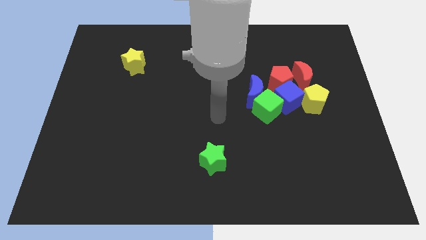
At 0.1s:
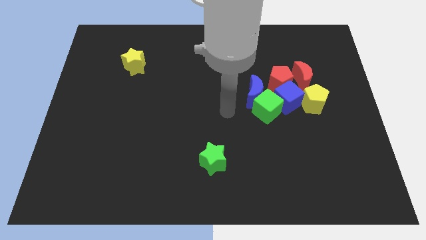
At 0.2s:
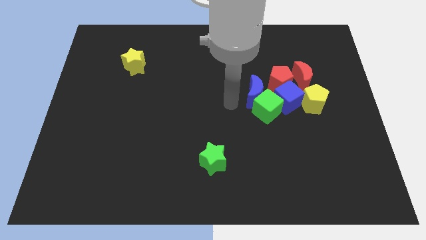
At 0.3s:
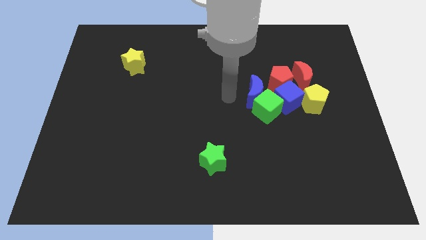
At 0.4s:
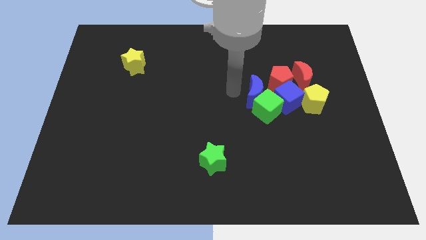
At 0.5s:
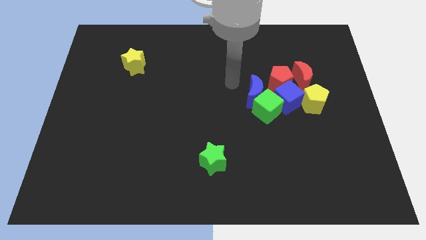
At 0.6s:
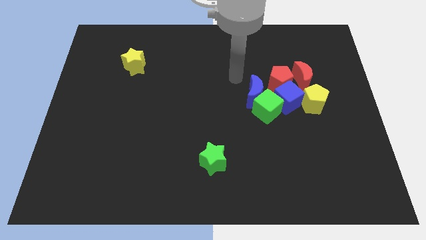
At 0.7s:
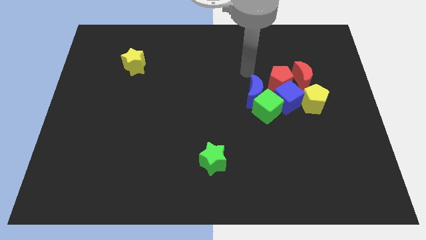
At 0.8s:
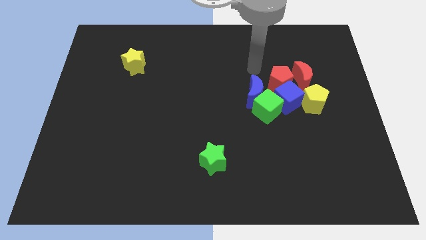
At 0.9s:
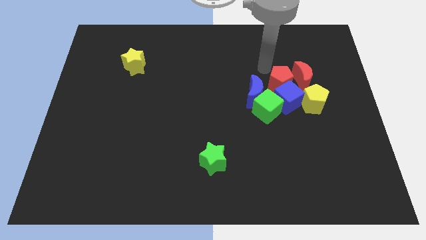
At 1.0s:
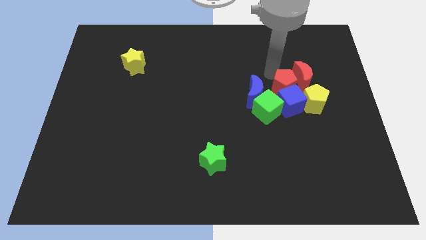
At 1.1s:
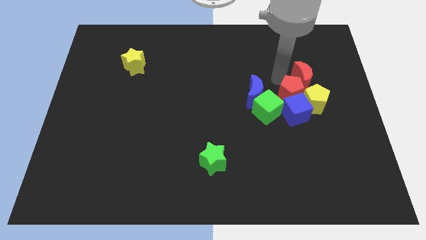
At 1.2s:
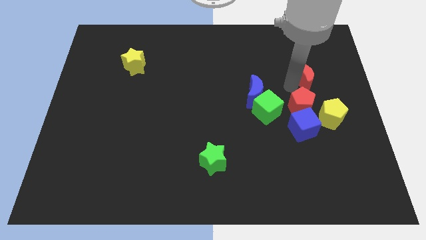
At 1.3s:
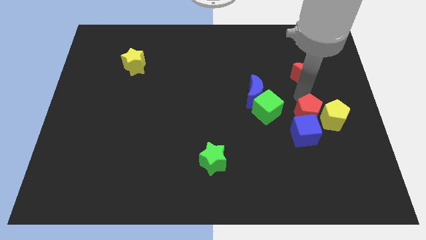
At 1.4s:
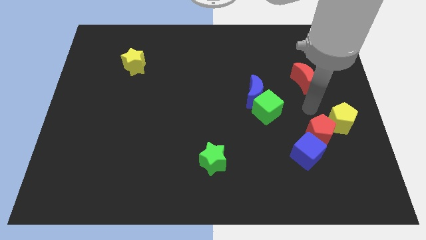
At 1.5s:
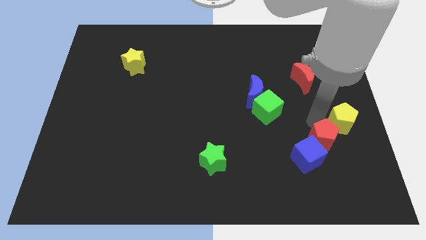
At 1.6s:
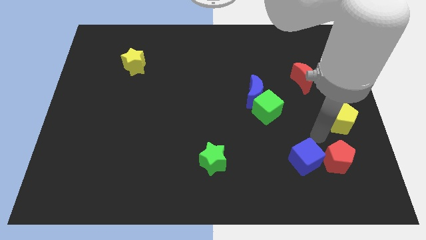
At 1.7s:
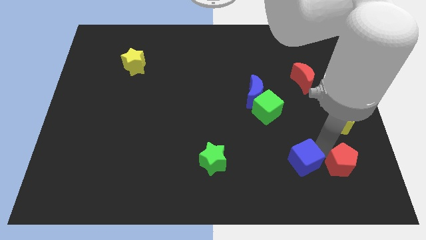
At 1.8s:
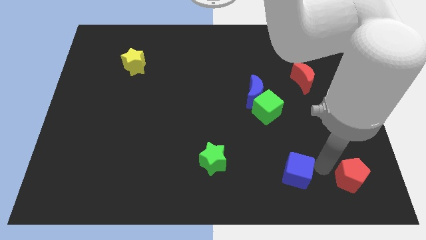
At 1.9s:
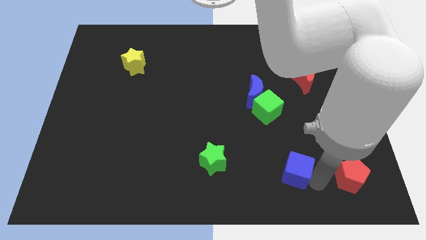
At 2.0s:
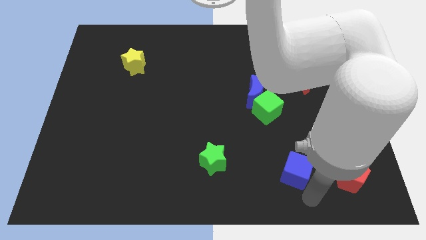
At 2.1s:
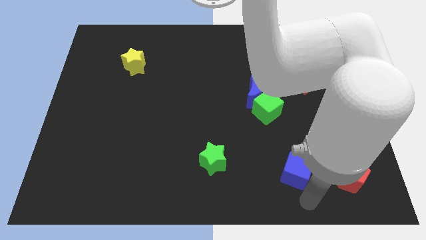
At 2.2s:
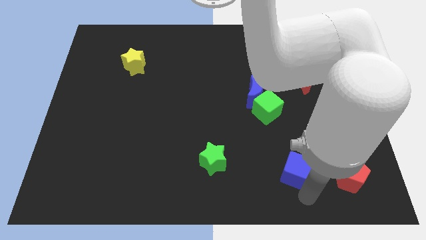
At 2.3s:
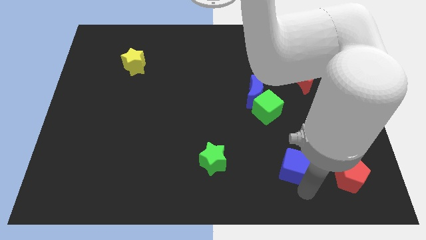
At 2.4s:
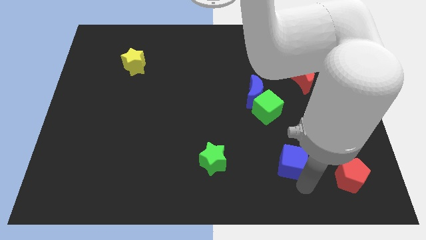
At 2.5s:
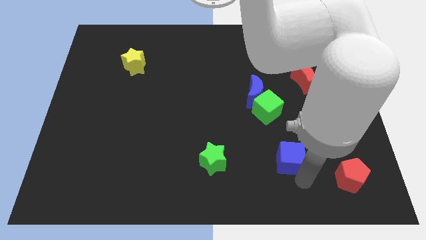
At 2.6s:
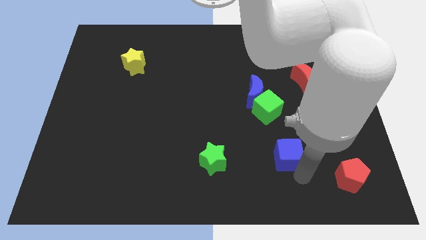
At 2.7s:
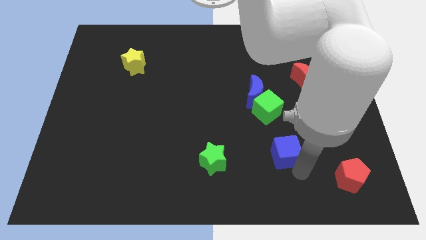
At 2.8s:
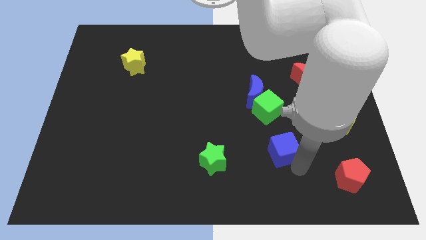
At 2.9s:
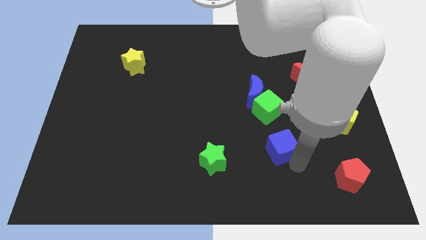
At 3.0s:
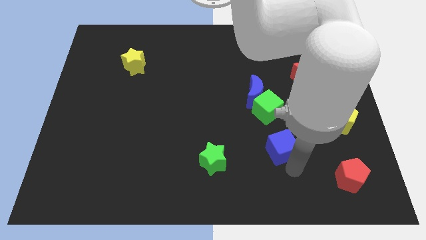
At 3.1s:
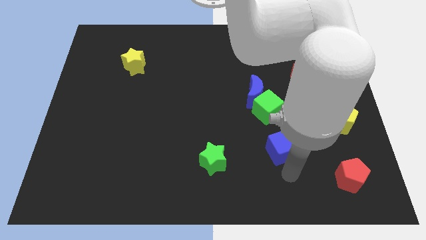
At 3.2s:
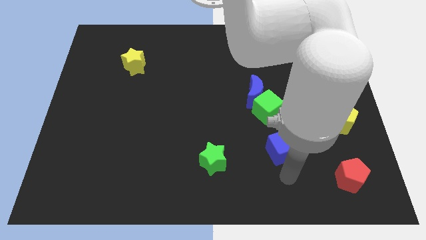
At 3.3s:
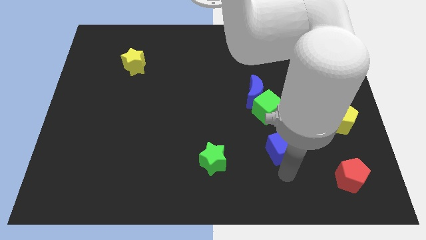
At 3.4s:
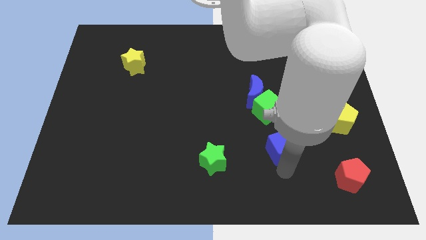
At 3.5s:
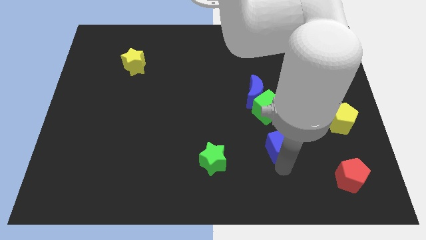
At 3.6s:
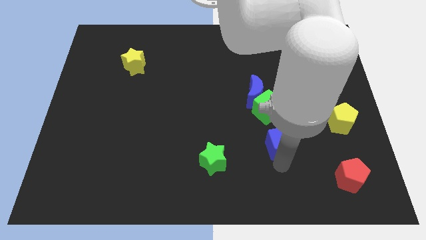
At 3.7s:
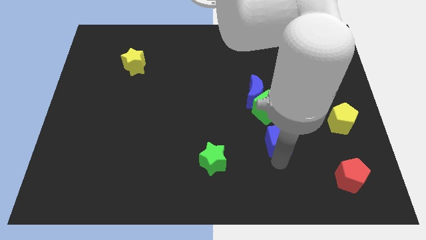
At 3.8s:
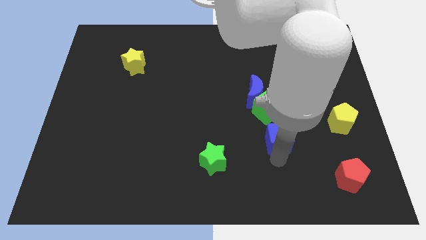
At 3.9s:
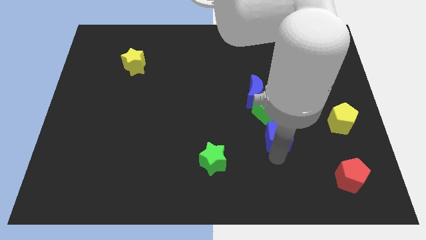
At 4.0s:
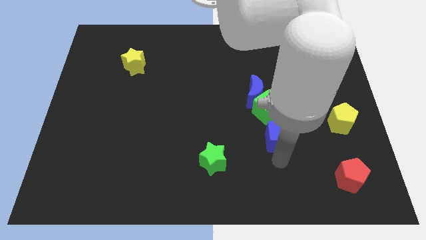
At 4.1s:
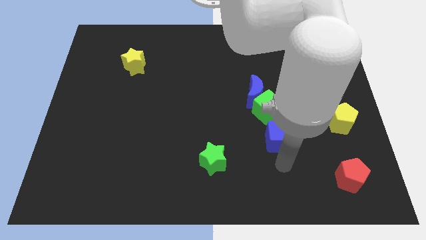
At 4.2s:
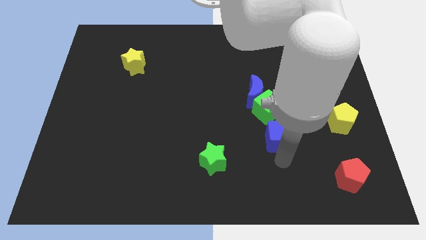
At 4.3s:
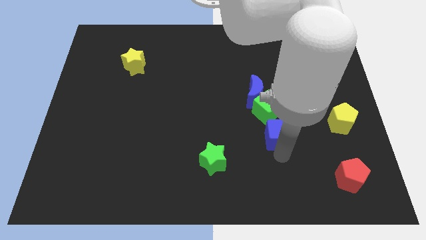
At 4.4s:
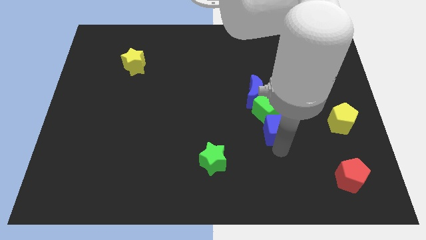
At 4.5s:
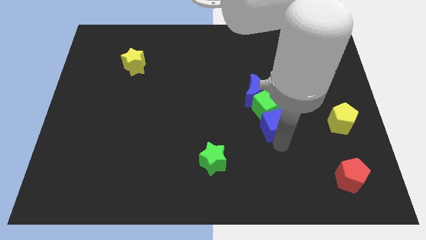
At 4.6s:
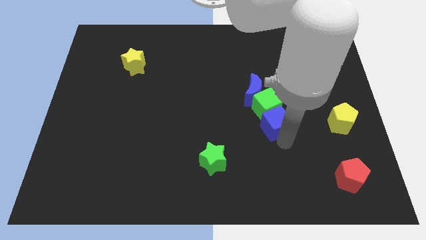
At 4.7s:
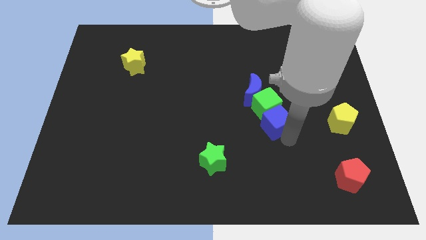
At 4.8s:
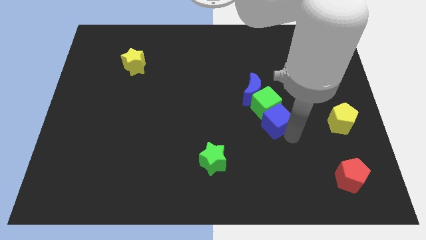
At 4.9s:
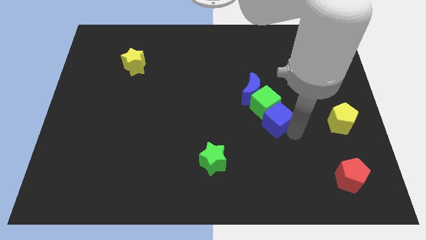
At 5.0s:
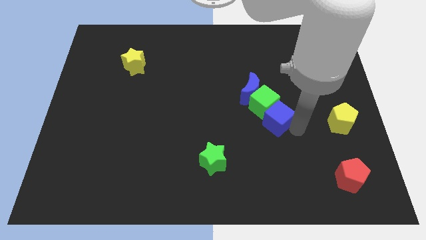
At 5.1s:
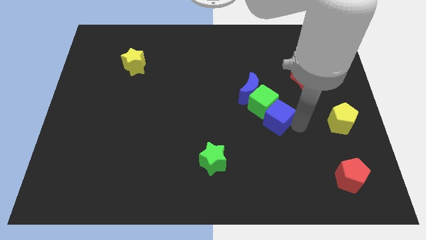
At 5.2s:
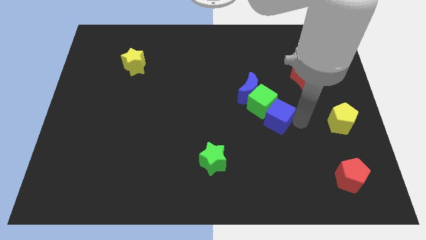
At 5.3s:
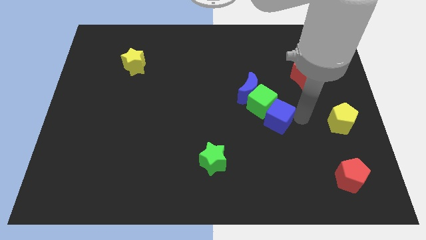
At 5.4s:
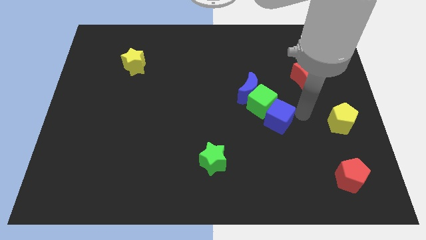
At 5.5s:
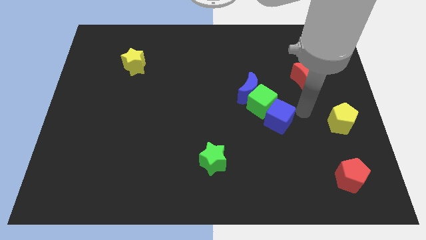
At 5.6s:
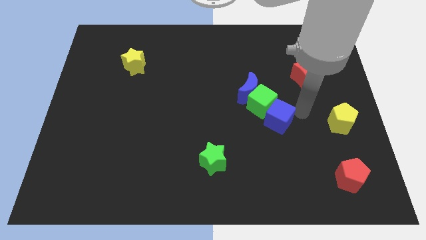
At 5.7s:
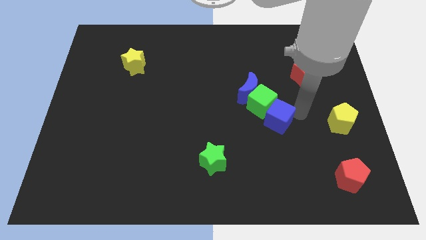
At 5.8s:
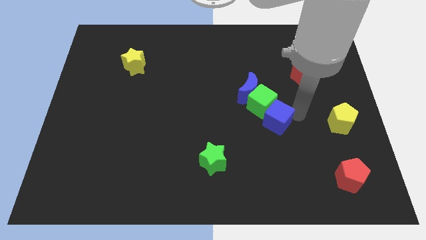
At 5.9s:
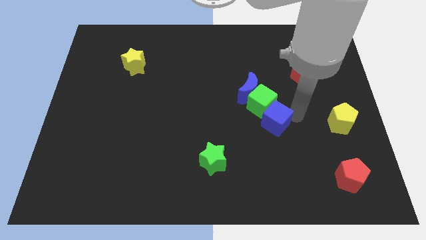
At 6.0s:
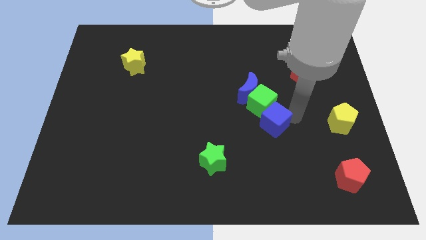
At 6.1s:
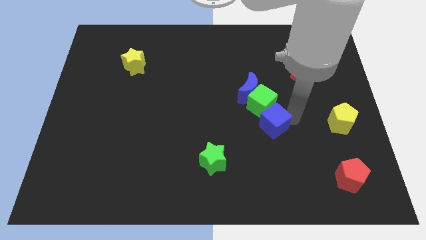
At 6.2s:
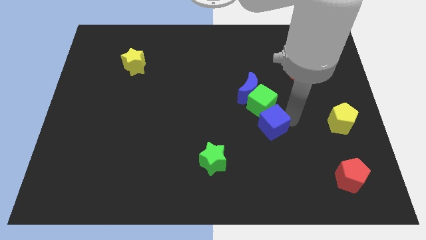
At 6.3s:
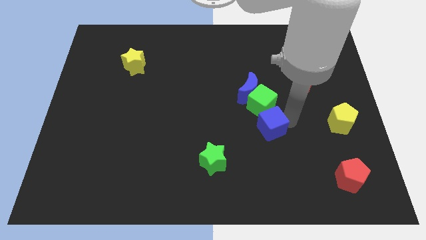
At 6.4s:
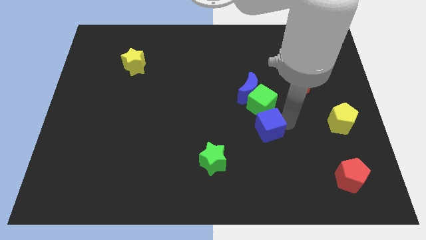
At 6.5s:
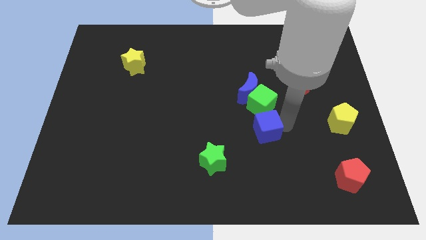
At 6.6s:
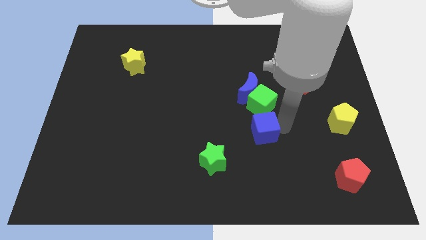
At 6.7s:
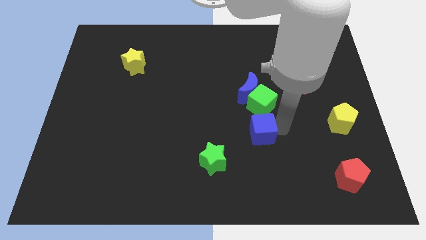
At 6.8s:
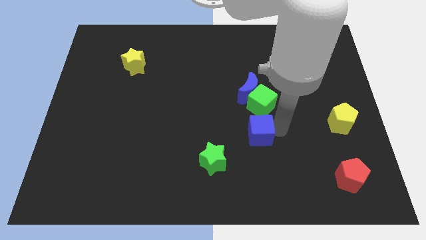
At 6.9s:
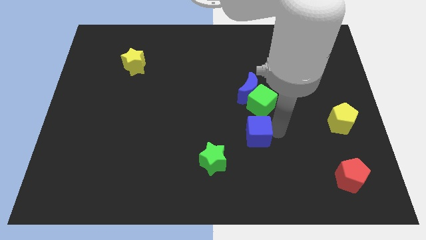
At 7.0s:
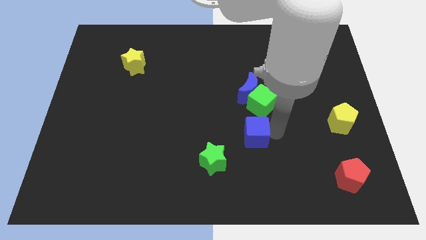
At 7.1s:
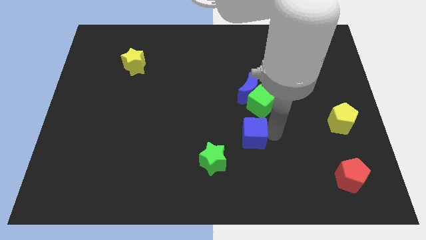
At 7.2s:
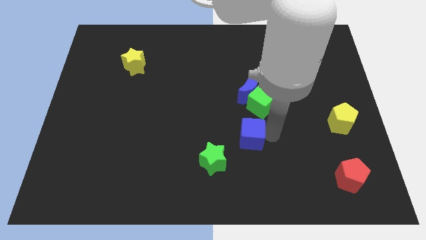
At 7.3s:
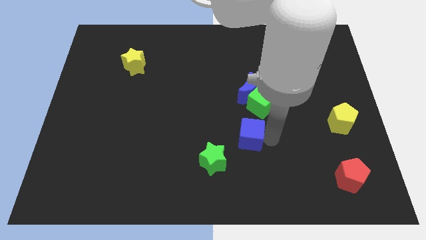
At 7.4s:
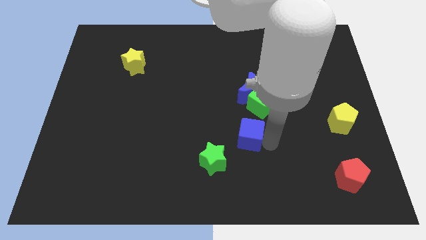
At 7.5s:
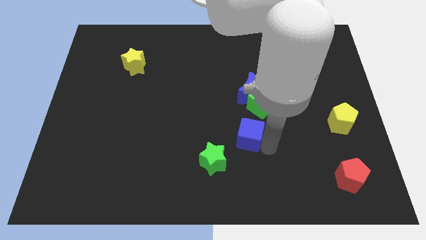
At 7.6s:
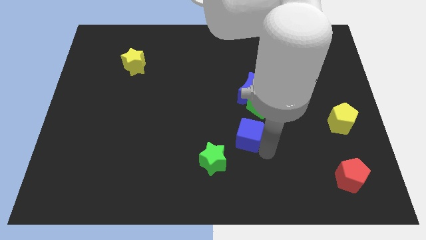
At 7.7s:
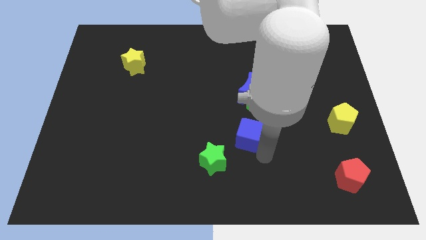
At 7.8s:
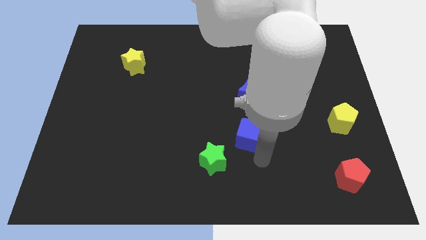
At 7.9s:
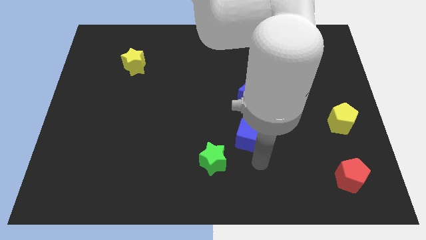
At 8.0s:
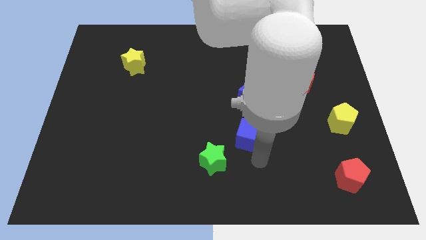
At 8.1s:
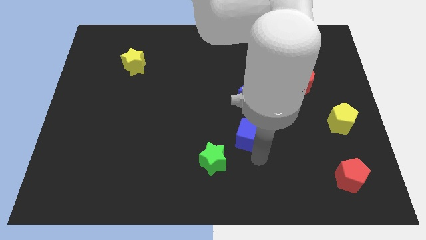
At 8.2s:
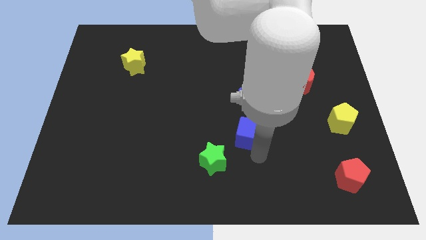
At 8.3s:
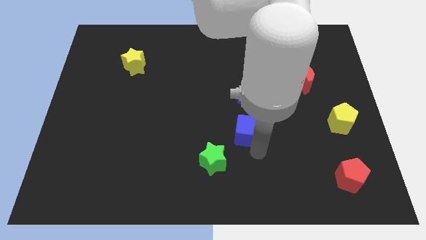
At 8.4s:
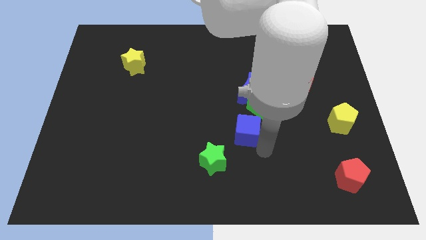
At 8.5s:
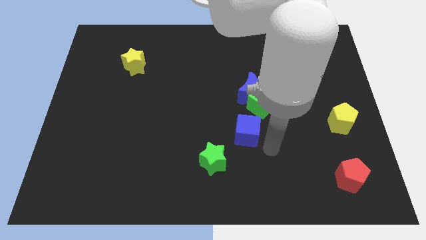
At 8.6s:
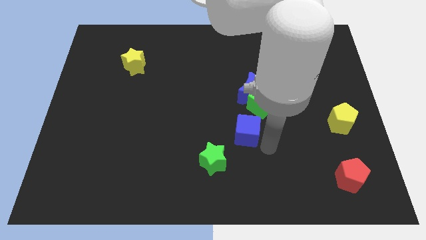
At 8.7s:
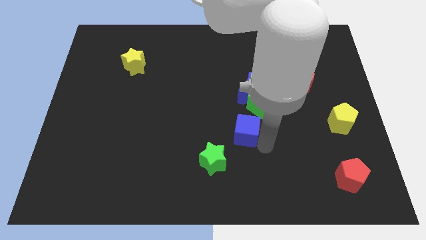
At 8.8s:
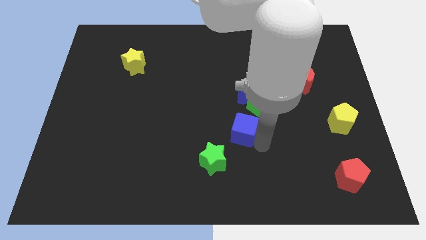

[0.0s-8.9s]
slightly slide the blue cube left
